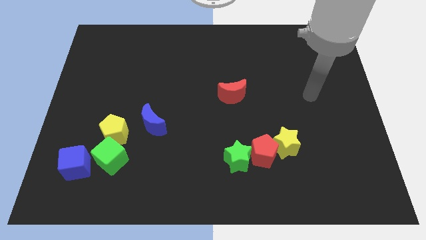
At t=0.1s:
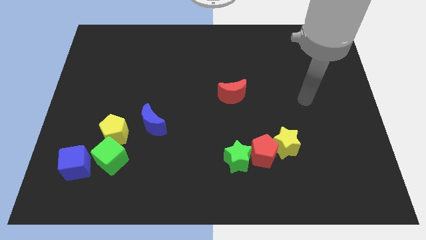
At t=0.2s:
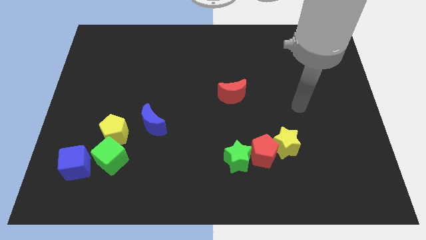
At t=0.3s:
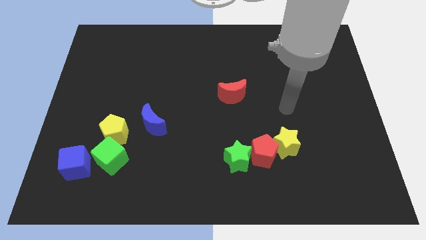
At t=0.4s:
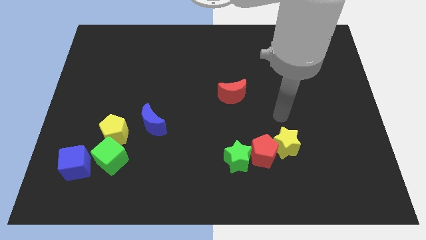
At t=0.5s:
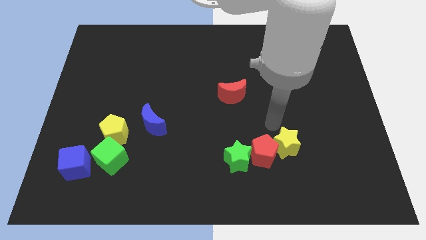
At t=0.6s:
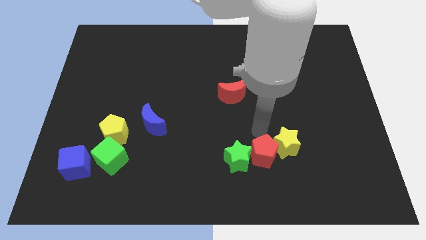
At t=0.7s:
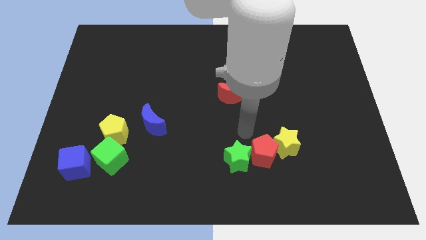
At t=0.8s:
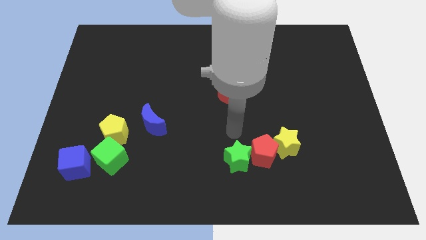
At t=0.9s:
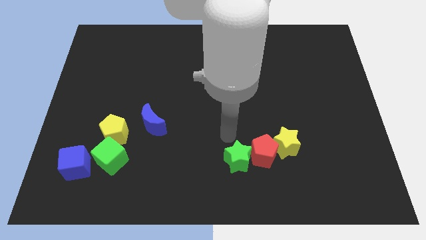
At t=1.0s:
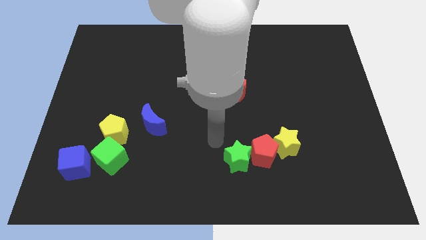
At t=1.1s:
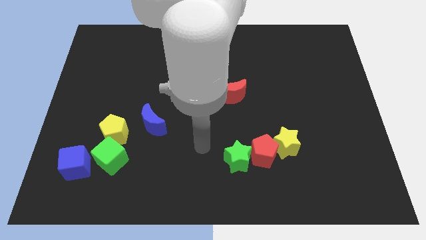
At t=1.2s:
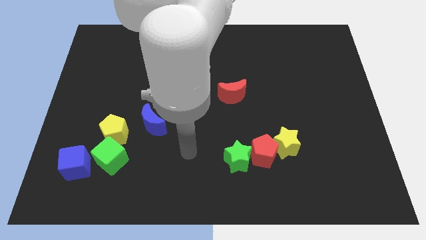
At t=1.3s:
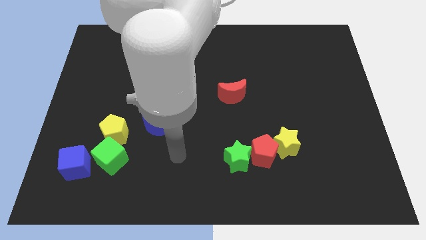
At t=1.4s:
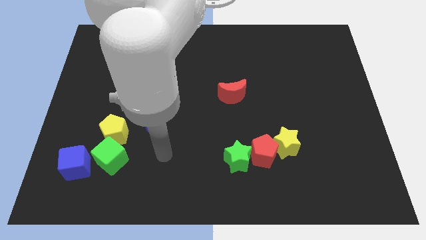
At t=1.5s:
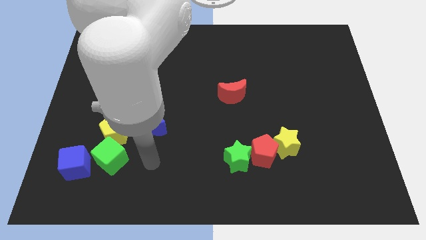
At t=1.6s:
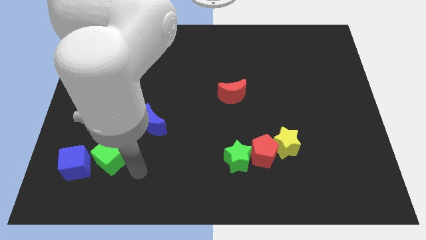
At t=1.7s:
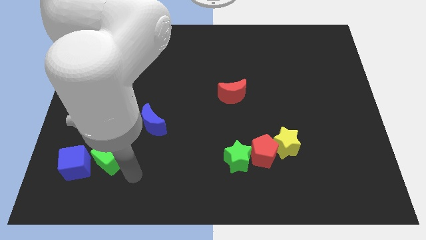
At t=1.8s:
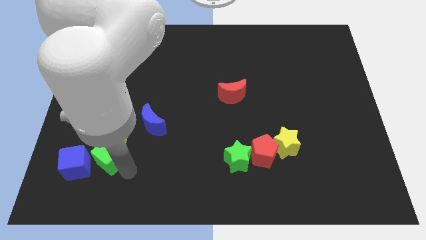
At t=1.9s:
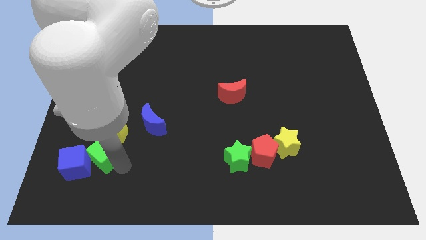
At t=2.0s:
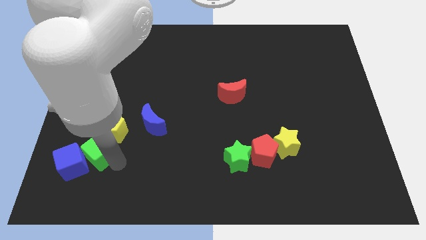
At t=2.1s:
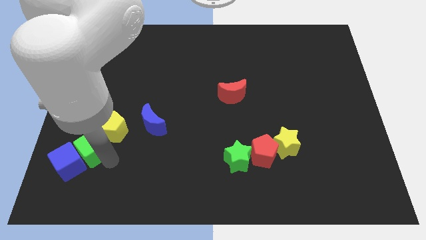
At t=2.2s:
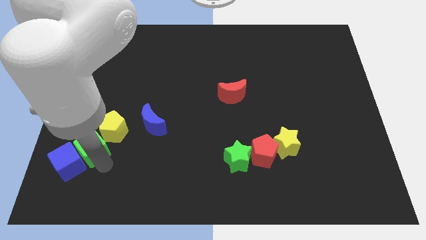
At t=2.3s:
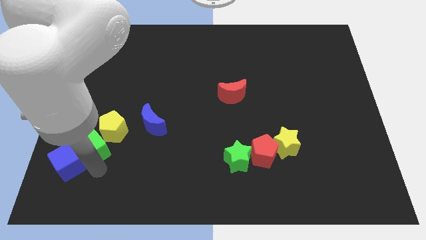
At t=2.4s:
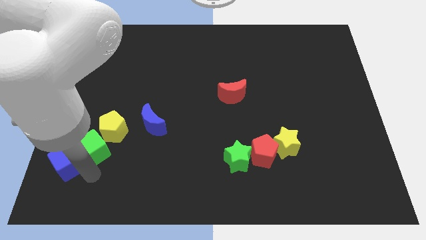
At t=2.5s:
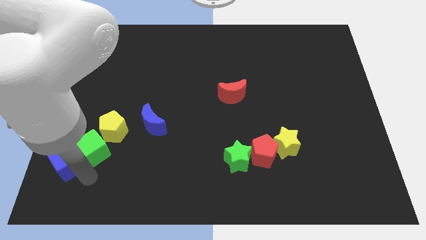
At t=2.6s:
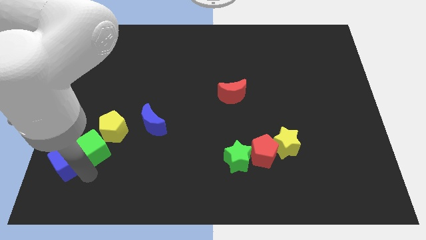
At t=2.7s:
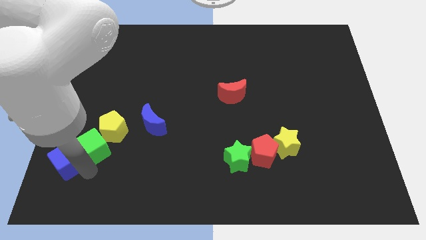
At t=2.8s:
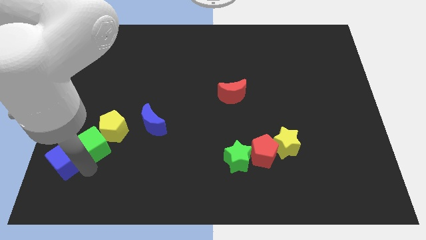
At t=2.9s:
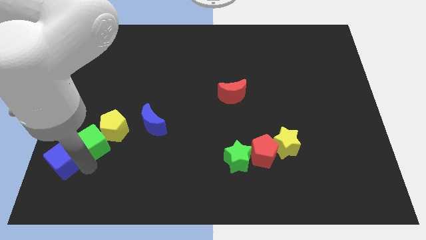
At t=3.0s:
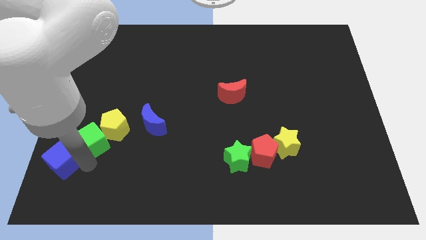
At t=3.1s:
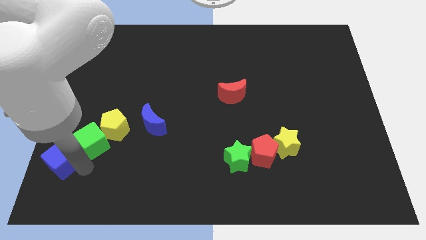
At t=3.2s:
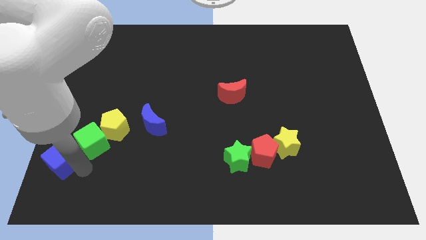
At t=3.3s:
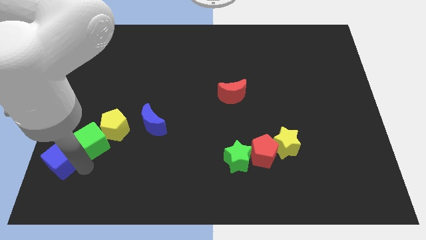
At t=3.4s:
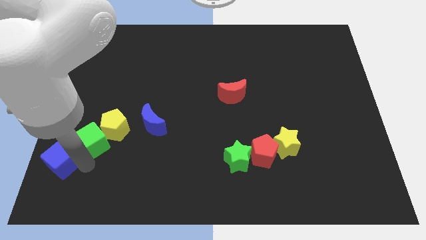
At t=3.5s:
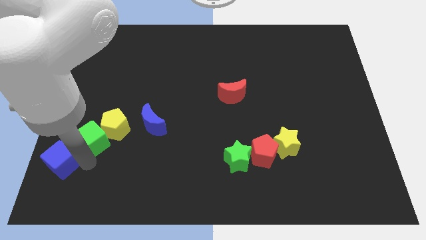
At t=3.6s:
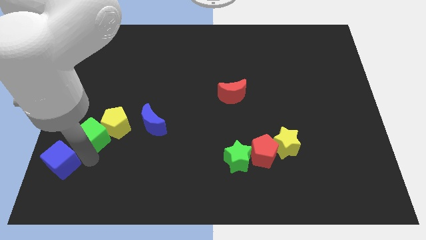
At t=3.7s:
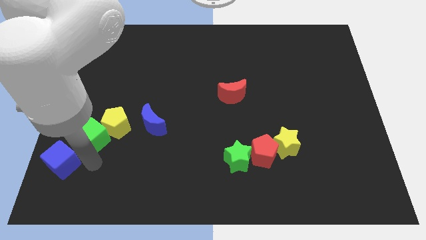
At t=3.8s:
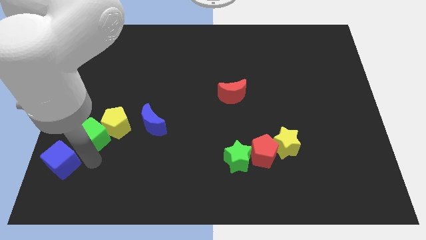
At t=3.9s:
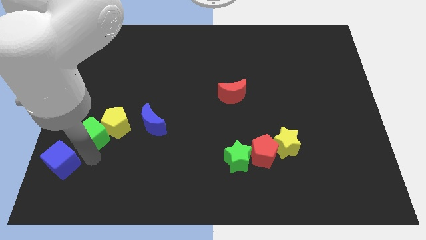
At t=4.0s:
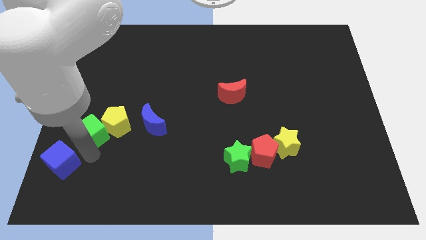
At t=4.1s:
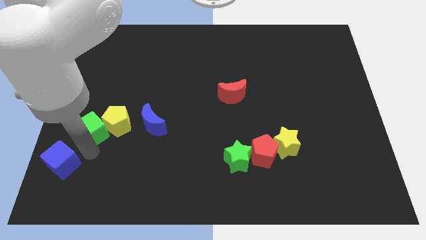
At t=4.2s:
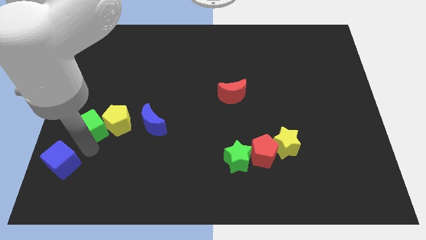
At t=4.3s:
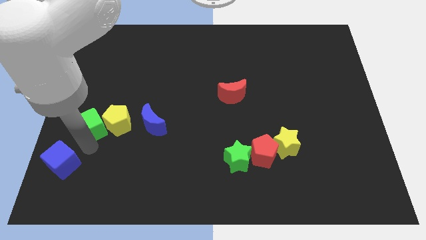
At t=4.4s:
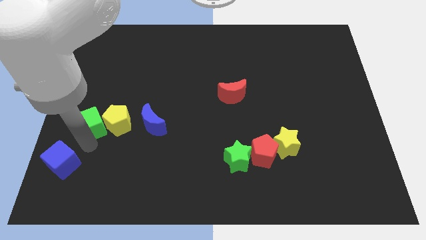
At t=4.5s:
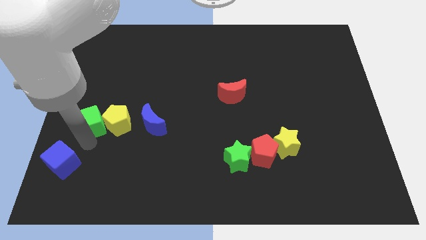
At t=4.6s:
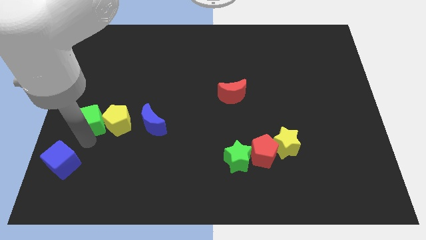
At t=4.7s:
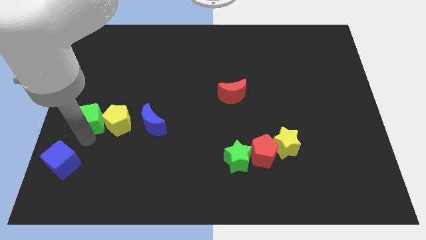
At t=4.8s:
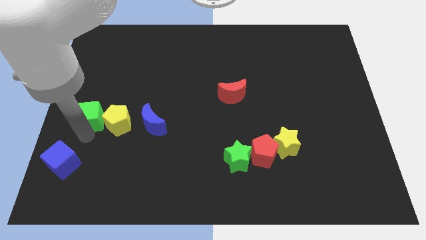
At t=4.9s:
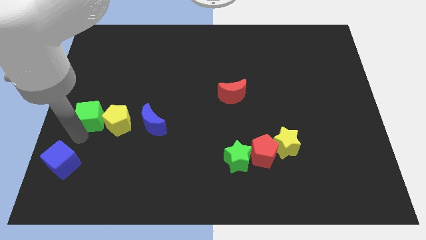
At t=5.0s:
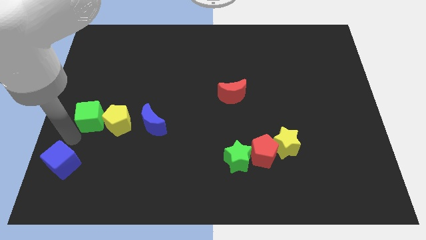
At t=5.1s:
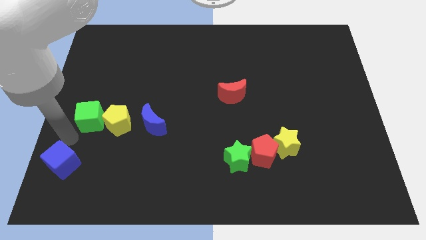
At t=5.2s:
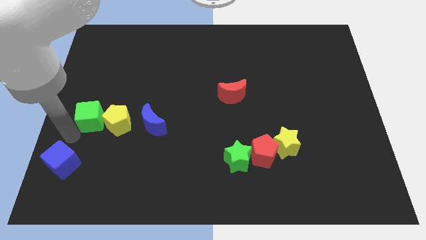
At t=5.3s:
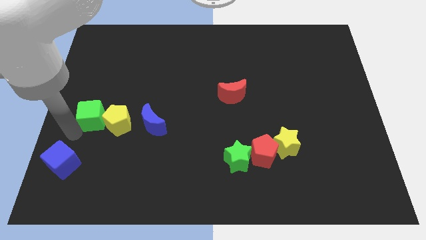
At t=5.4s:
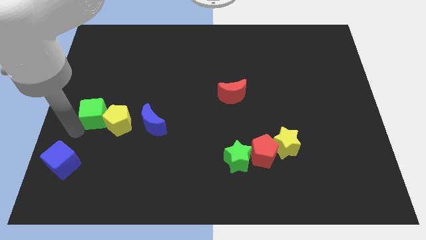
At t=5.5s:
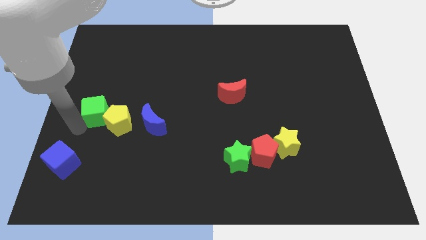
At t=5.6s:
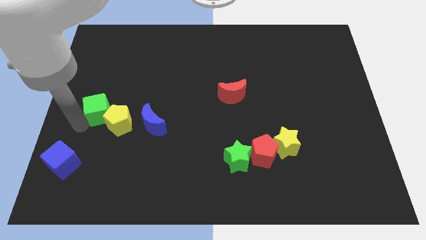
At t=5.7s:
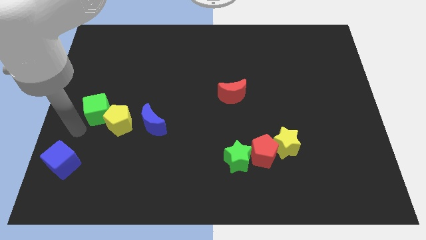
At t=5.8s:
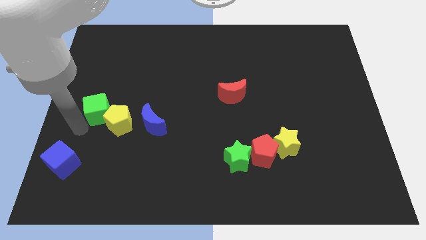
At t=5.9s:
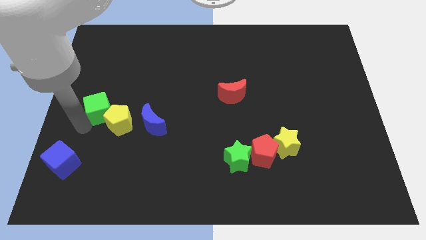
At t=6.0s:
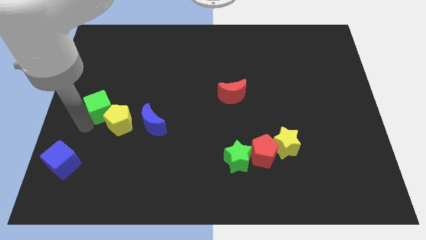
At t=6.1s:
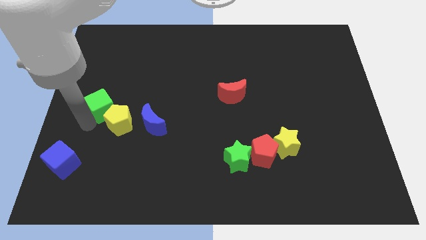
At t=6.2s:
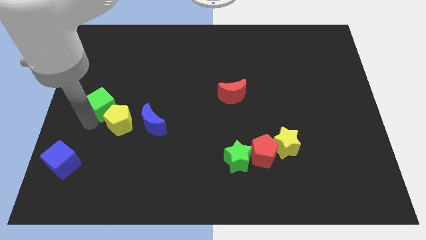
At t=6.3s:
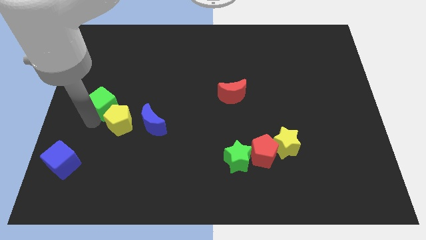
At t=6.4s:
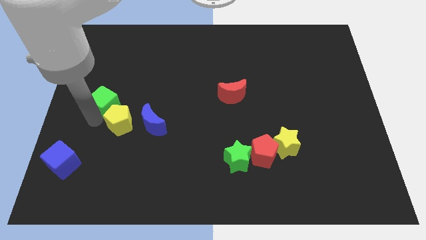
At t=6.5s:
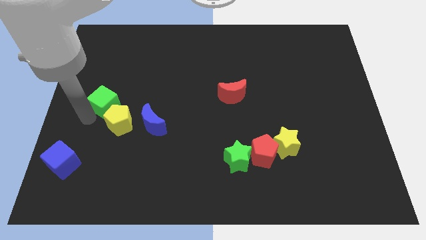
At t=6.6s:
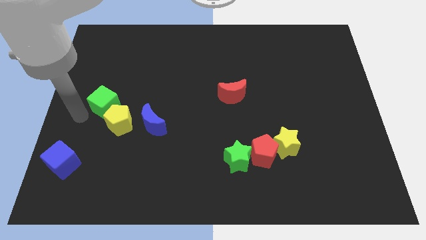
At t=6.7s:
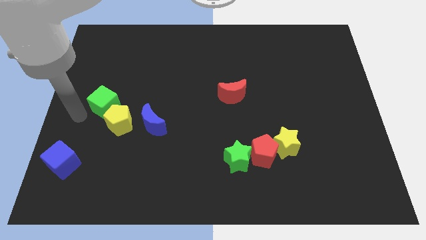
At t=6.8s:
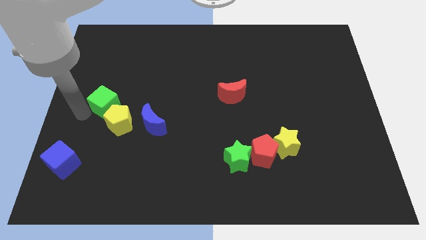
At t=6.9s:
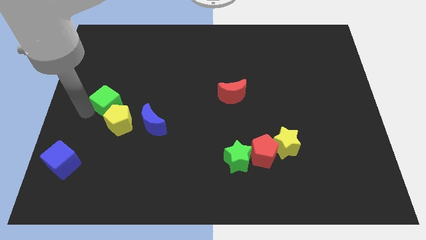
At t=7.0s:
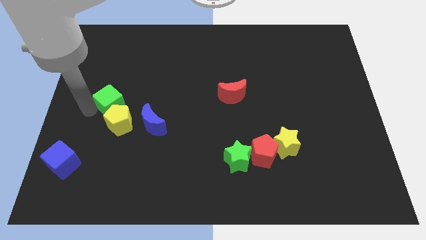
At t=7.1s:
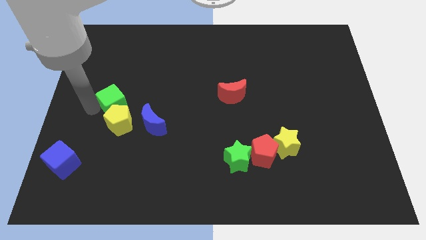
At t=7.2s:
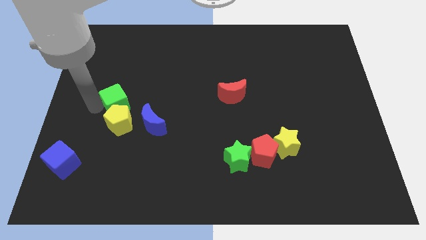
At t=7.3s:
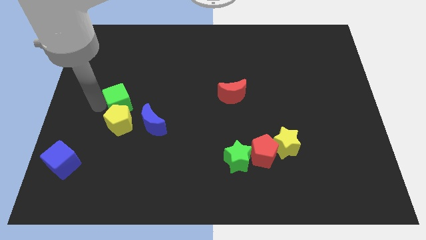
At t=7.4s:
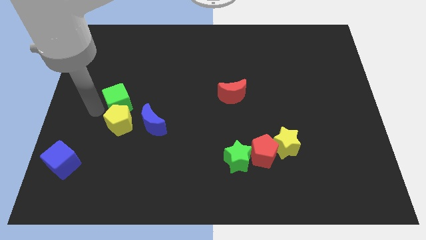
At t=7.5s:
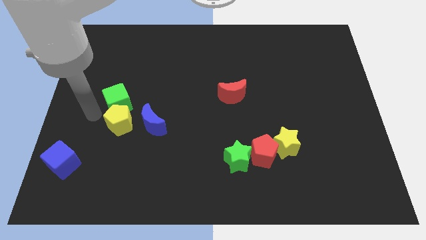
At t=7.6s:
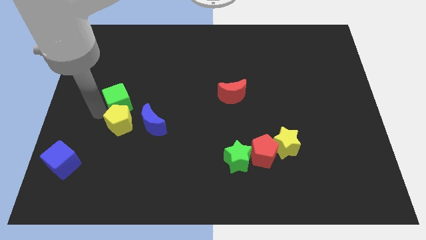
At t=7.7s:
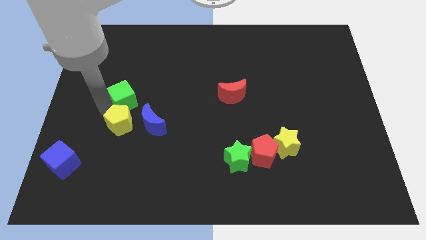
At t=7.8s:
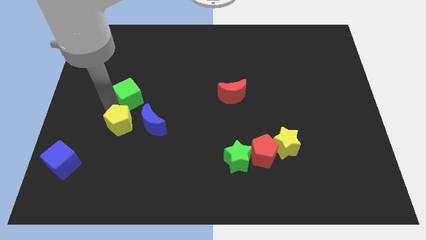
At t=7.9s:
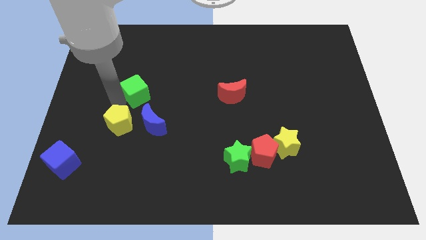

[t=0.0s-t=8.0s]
slide the green cube to the top side of the blue moon
